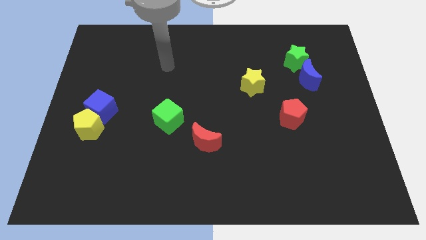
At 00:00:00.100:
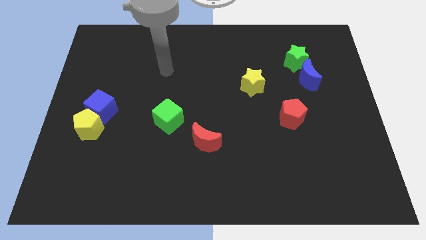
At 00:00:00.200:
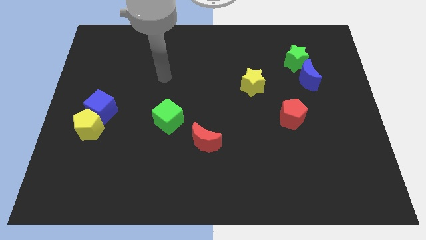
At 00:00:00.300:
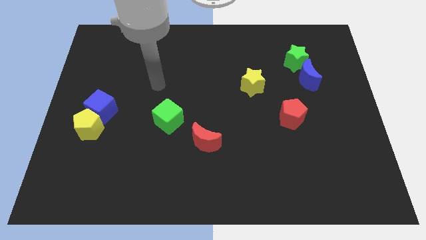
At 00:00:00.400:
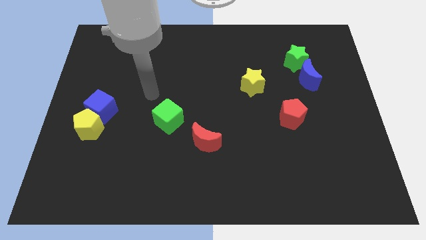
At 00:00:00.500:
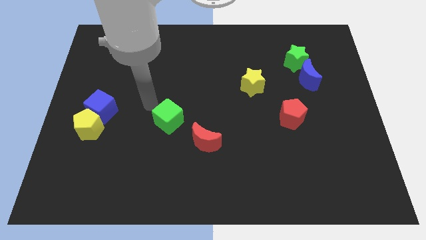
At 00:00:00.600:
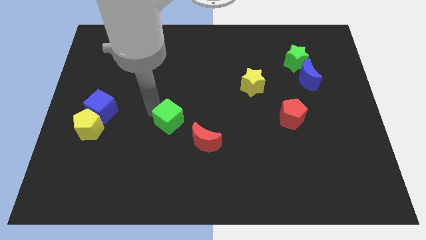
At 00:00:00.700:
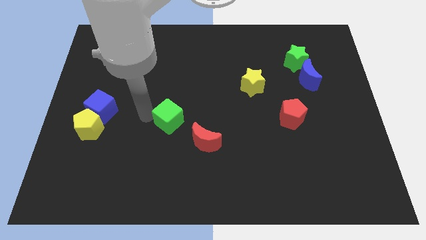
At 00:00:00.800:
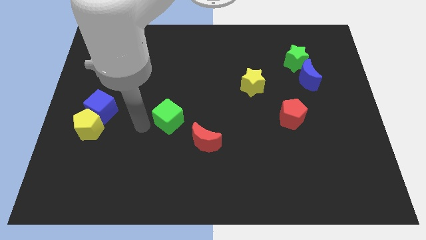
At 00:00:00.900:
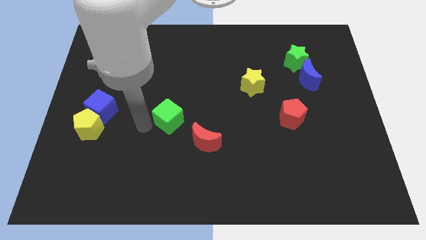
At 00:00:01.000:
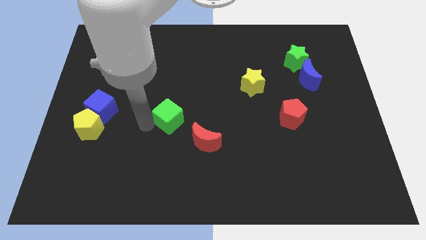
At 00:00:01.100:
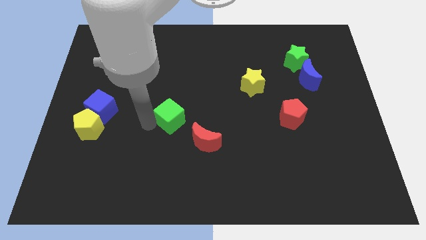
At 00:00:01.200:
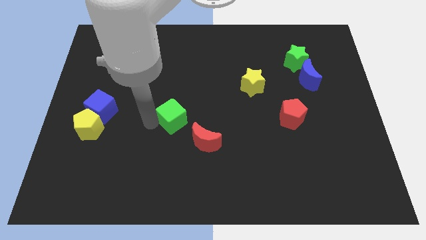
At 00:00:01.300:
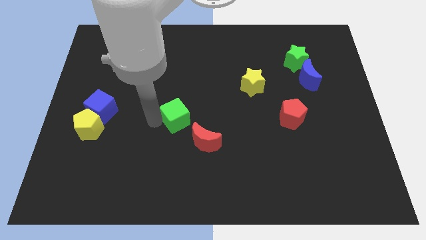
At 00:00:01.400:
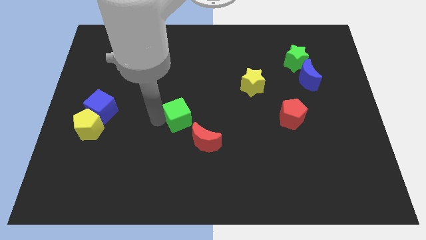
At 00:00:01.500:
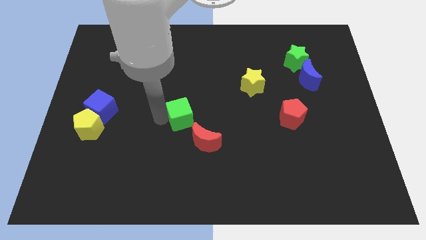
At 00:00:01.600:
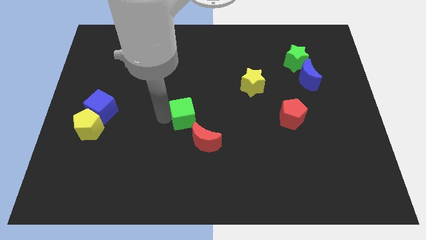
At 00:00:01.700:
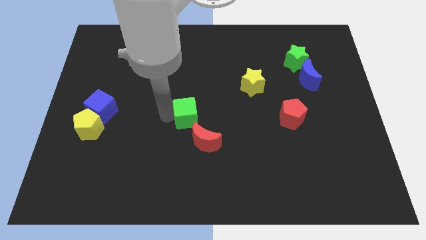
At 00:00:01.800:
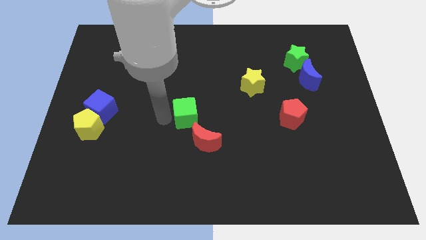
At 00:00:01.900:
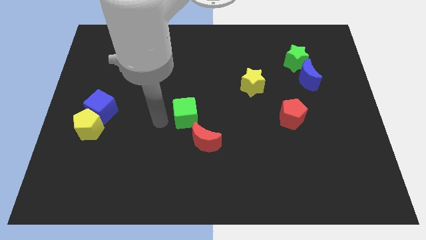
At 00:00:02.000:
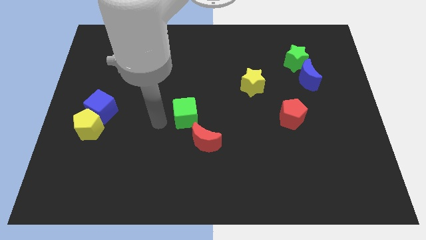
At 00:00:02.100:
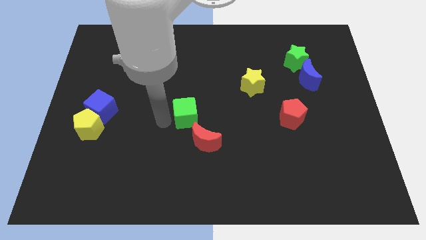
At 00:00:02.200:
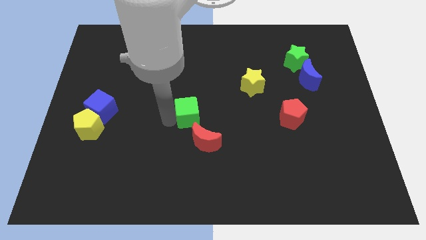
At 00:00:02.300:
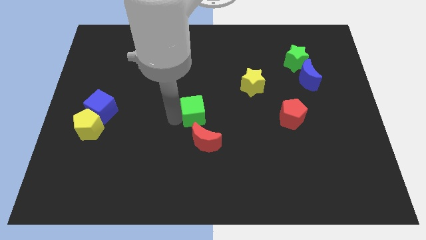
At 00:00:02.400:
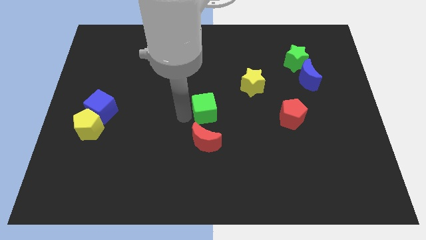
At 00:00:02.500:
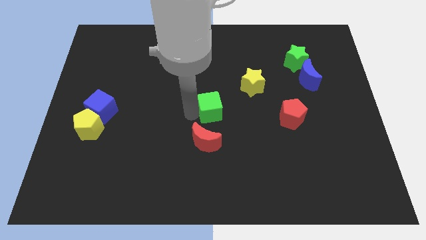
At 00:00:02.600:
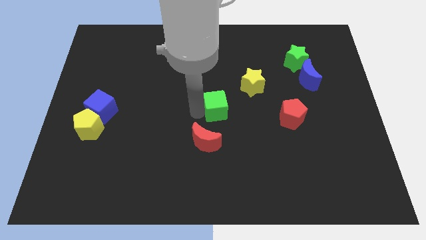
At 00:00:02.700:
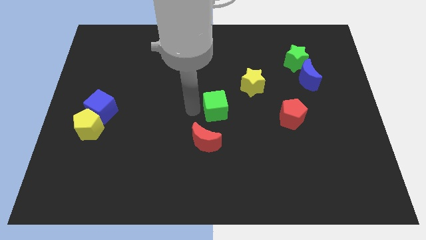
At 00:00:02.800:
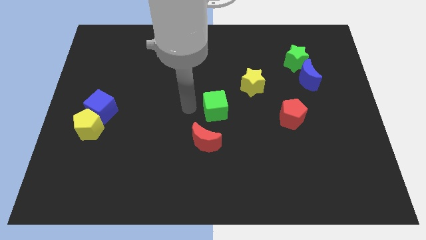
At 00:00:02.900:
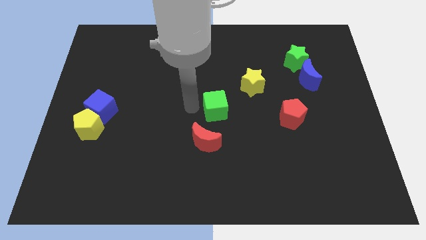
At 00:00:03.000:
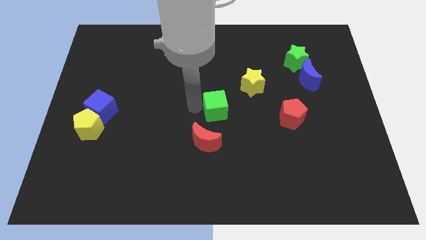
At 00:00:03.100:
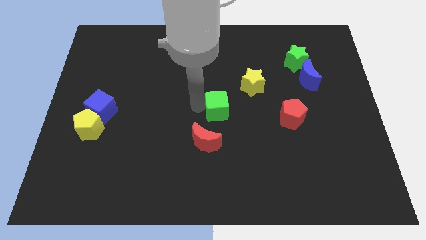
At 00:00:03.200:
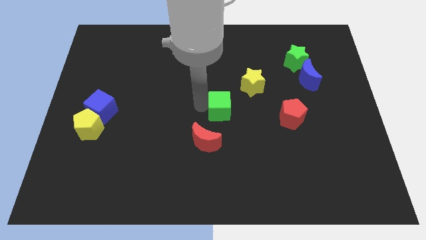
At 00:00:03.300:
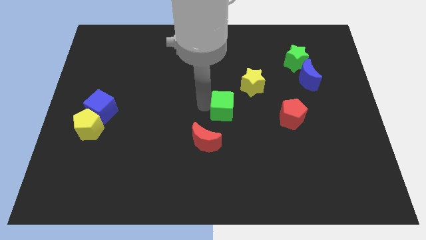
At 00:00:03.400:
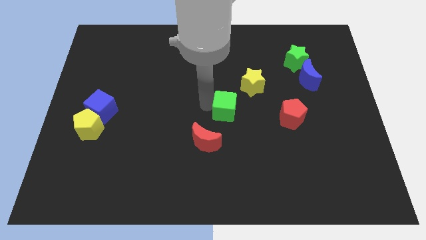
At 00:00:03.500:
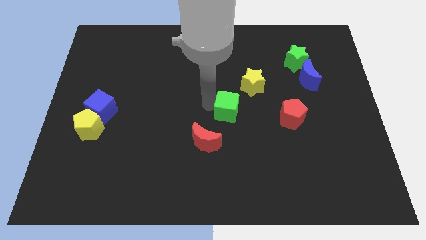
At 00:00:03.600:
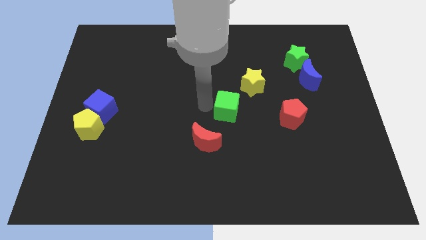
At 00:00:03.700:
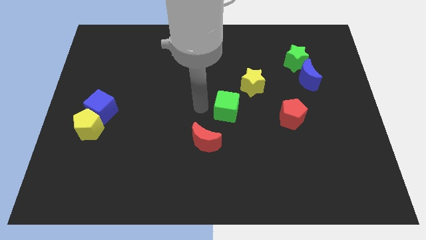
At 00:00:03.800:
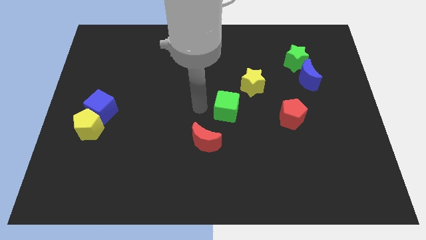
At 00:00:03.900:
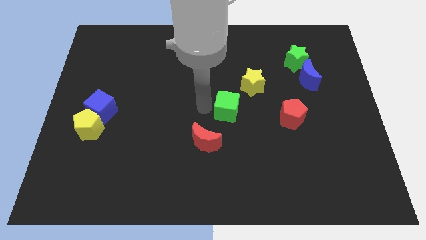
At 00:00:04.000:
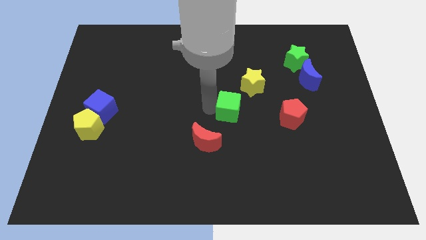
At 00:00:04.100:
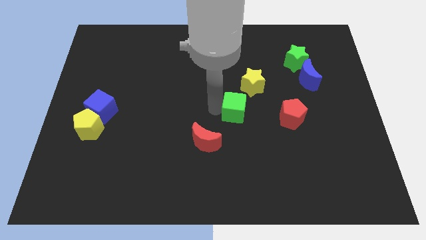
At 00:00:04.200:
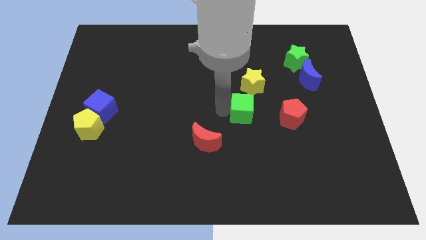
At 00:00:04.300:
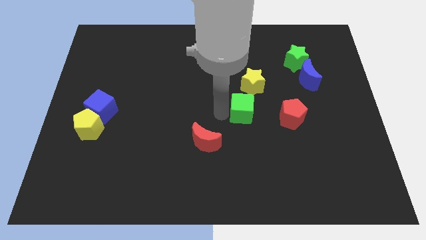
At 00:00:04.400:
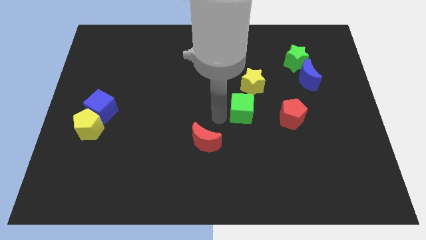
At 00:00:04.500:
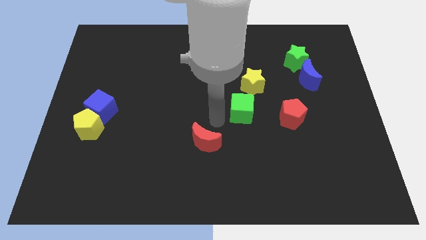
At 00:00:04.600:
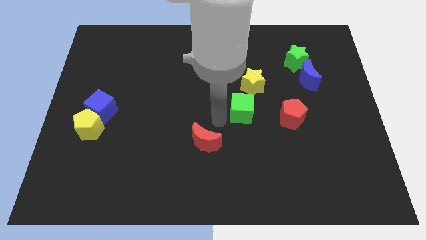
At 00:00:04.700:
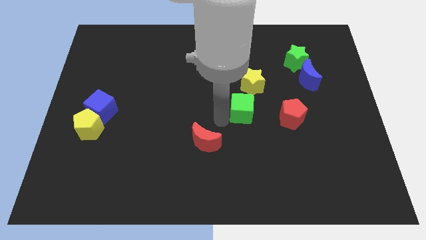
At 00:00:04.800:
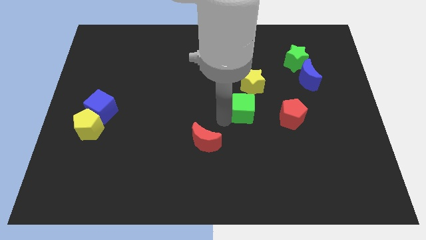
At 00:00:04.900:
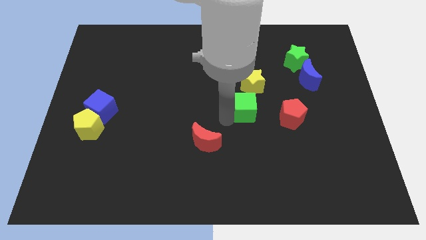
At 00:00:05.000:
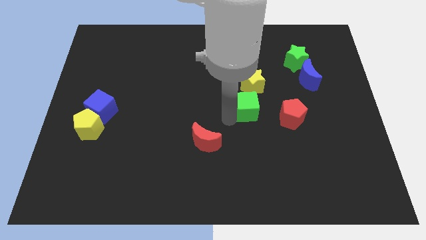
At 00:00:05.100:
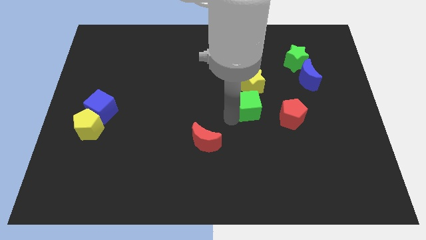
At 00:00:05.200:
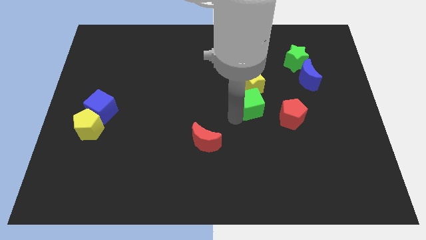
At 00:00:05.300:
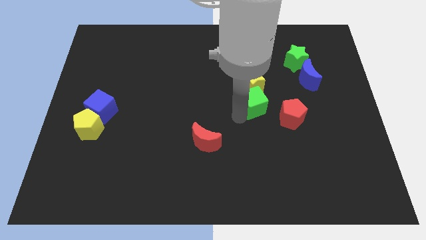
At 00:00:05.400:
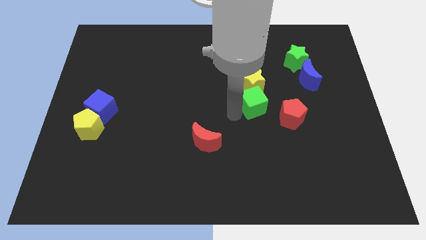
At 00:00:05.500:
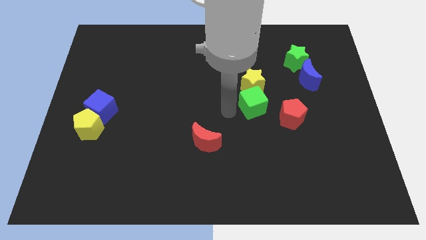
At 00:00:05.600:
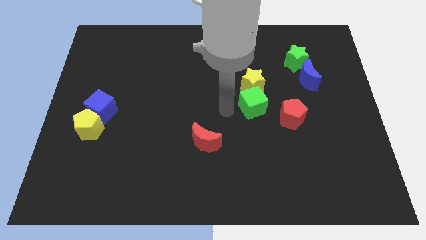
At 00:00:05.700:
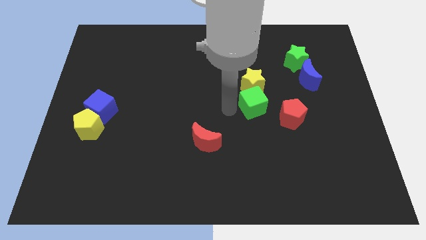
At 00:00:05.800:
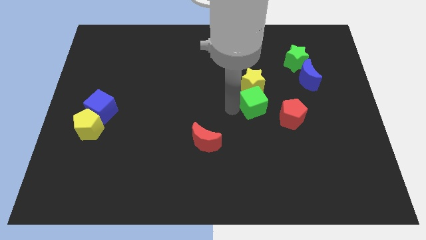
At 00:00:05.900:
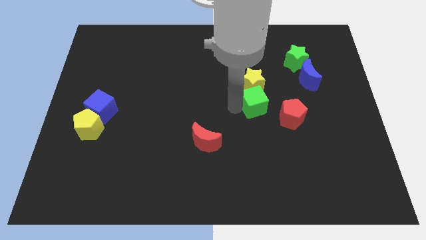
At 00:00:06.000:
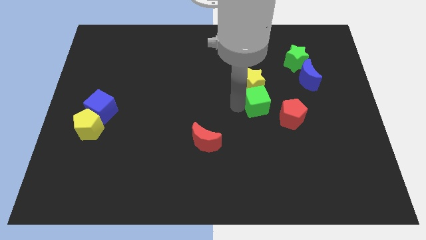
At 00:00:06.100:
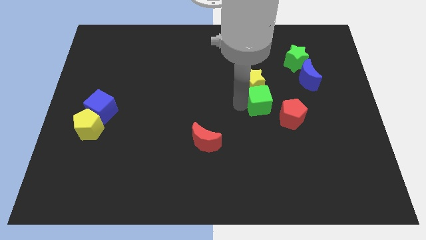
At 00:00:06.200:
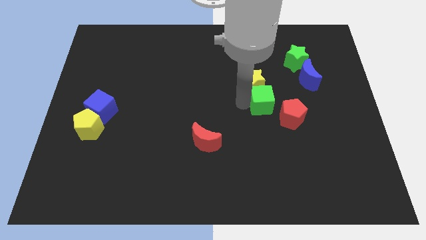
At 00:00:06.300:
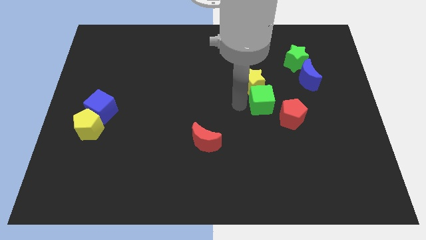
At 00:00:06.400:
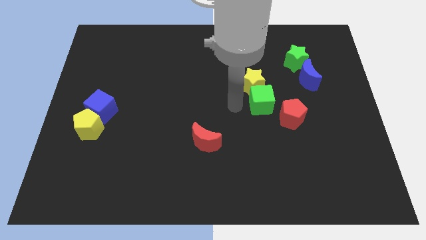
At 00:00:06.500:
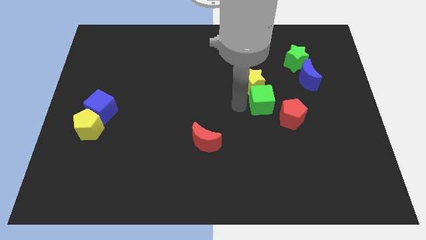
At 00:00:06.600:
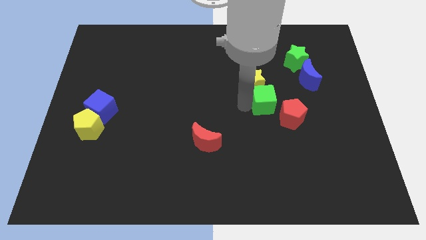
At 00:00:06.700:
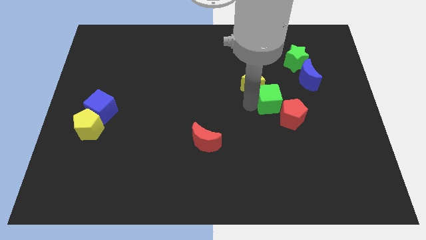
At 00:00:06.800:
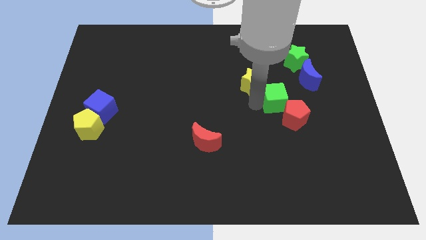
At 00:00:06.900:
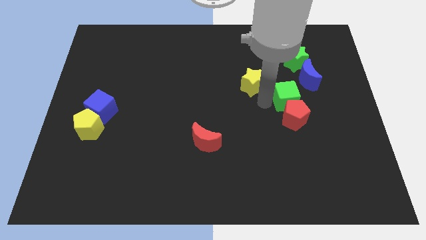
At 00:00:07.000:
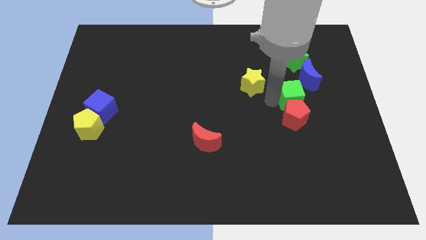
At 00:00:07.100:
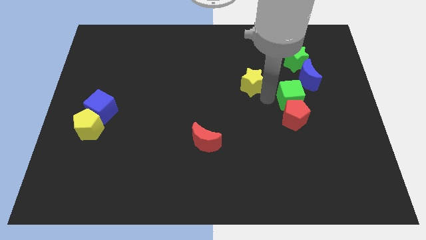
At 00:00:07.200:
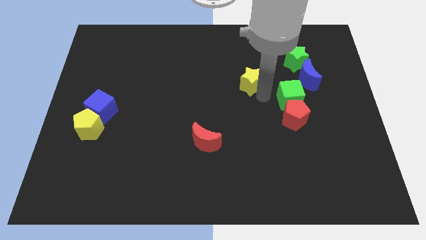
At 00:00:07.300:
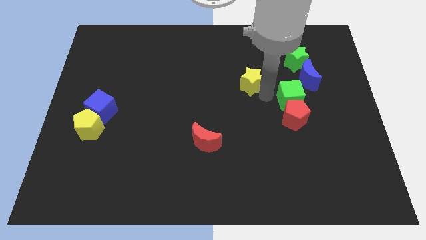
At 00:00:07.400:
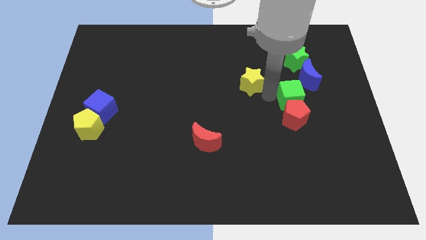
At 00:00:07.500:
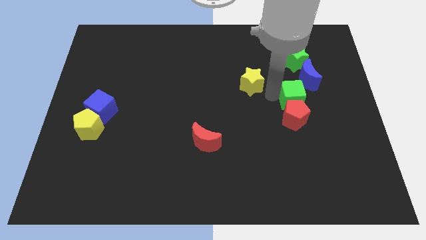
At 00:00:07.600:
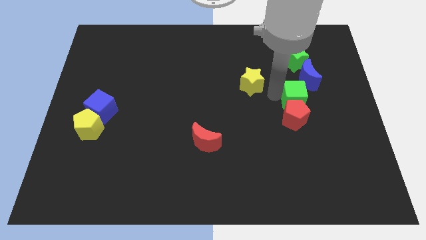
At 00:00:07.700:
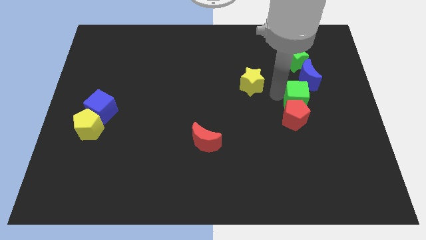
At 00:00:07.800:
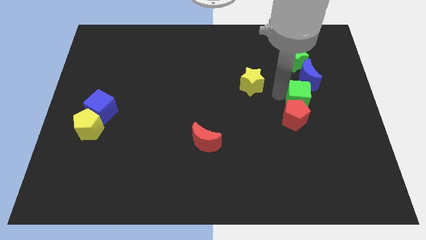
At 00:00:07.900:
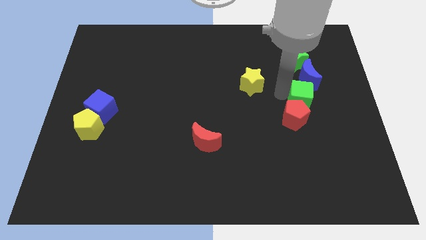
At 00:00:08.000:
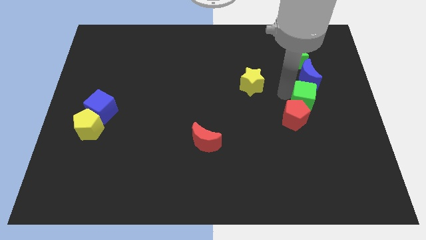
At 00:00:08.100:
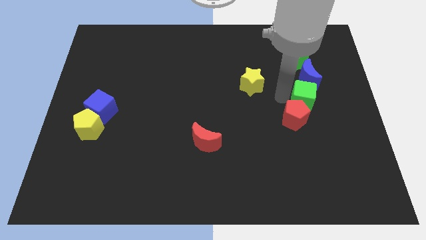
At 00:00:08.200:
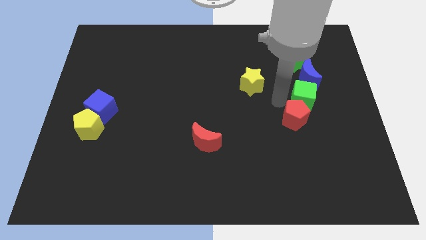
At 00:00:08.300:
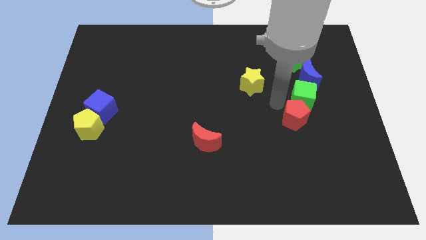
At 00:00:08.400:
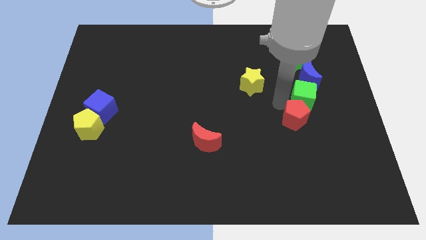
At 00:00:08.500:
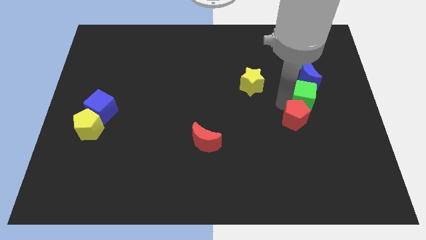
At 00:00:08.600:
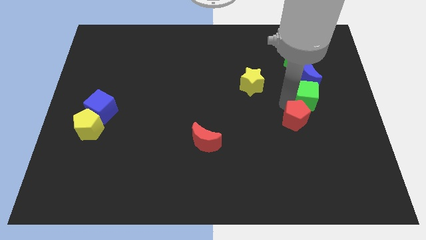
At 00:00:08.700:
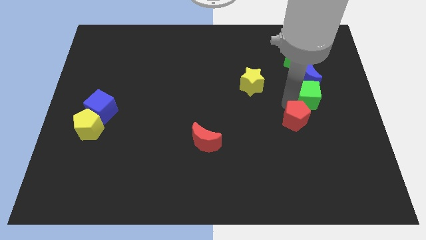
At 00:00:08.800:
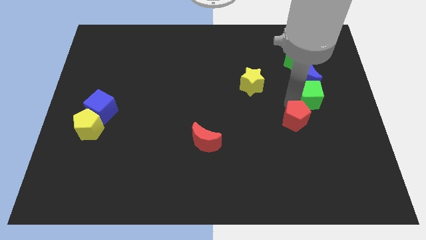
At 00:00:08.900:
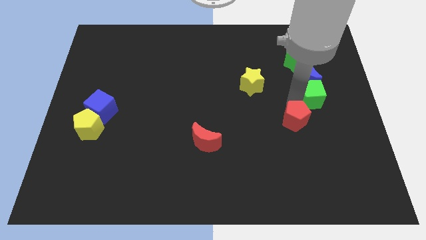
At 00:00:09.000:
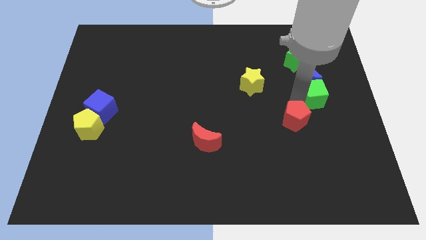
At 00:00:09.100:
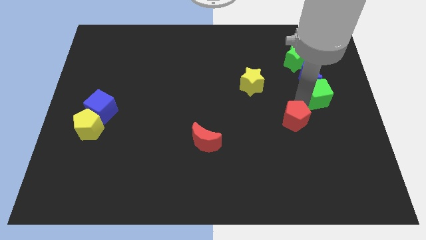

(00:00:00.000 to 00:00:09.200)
move the green cube to the right side of the board
